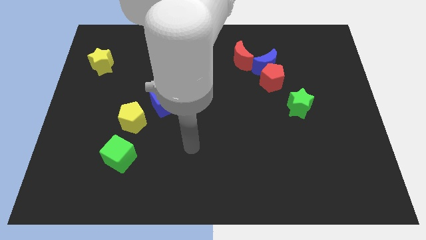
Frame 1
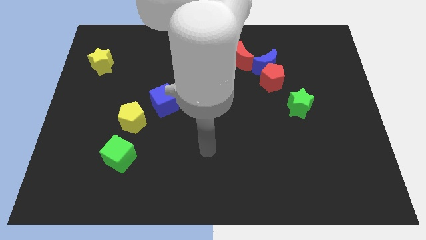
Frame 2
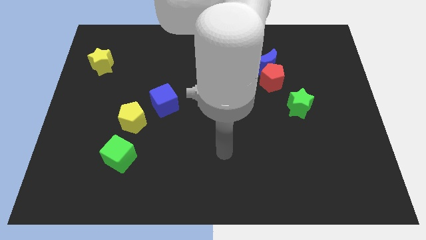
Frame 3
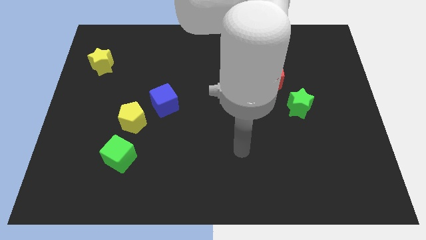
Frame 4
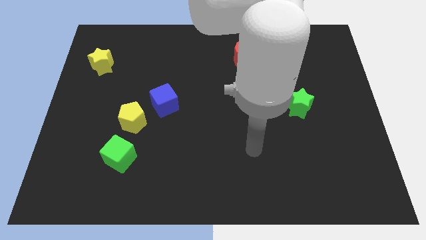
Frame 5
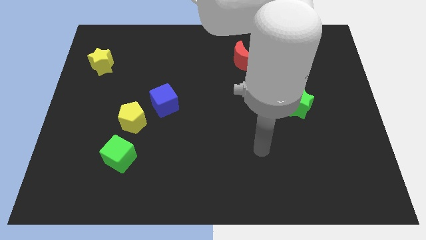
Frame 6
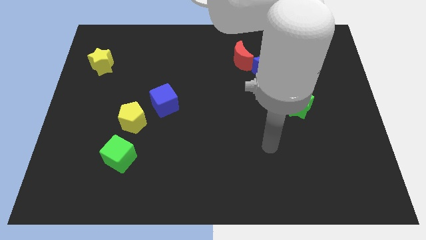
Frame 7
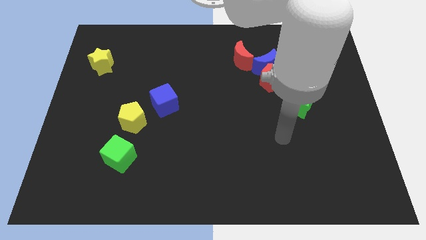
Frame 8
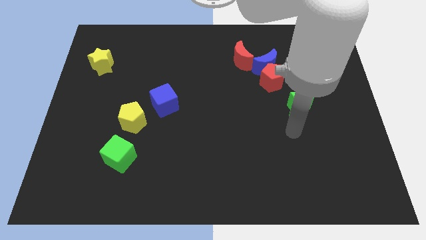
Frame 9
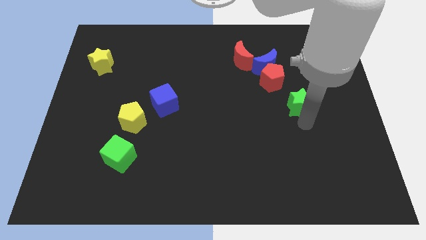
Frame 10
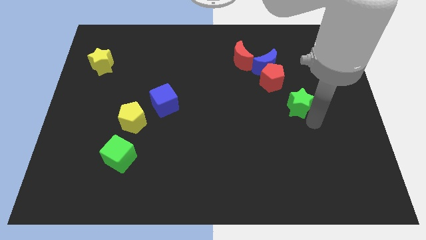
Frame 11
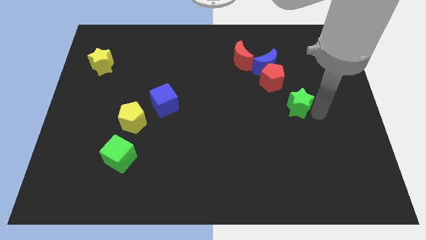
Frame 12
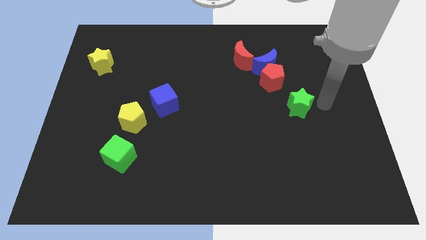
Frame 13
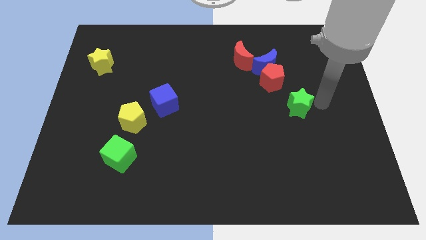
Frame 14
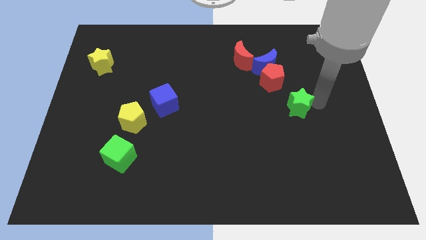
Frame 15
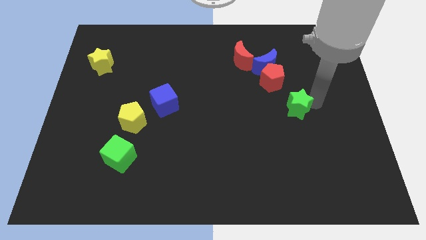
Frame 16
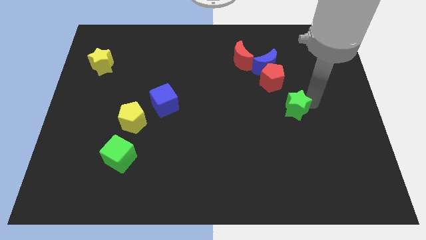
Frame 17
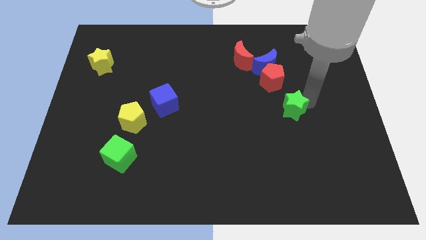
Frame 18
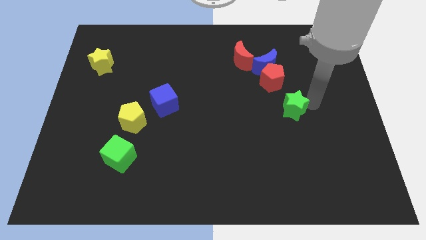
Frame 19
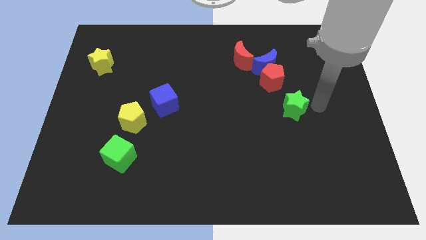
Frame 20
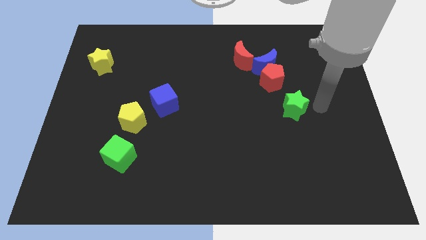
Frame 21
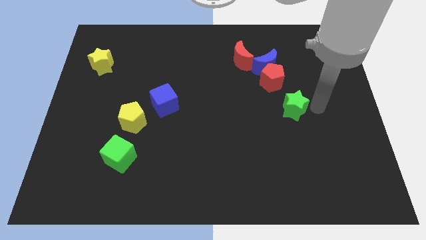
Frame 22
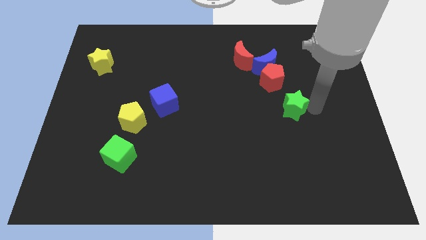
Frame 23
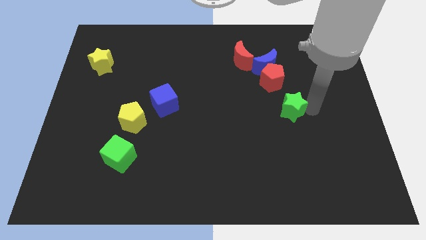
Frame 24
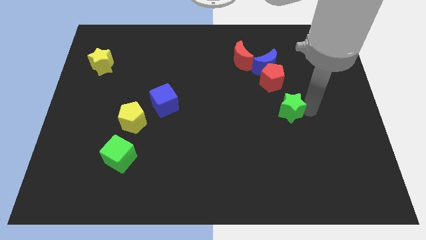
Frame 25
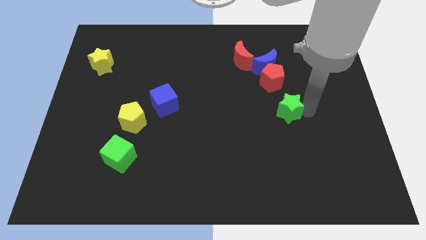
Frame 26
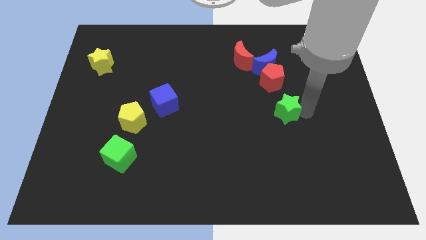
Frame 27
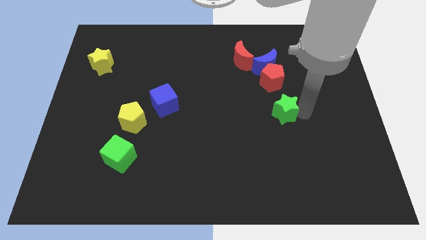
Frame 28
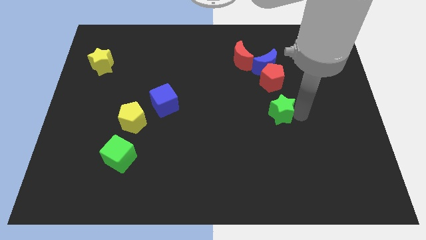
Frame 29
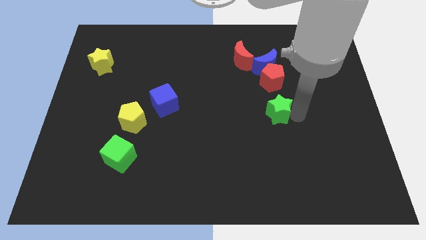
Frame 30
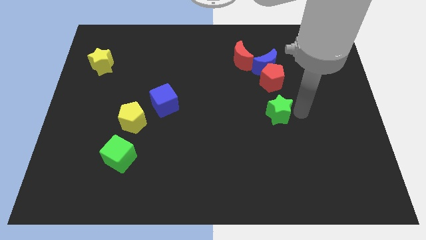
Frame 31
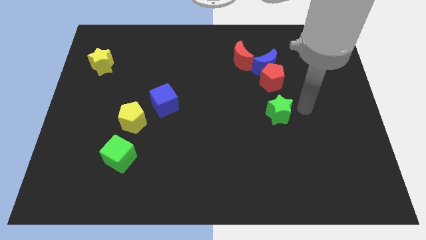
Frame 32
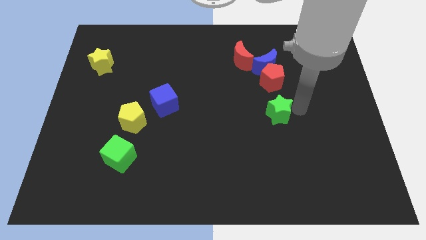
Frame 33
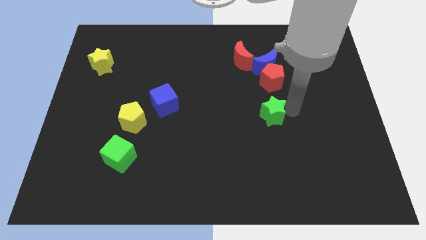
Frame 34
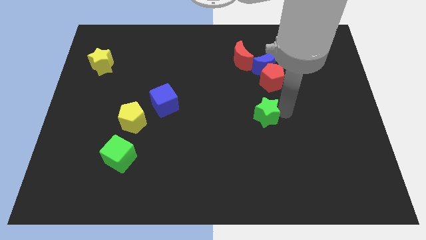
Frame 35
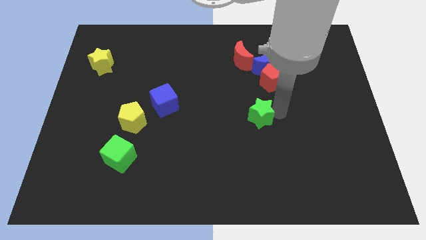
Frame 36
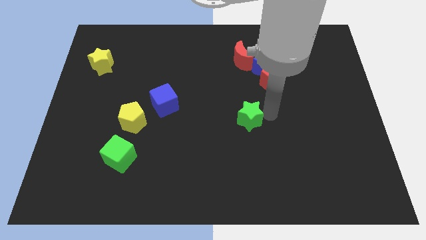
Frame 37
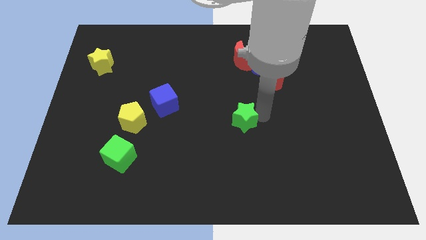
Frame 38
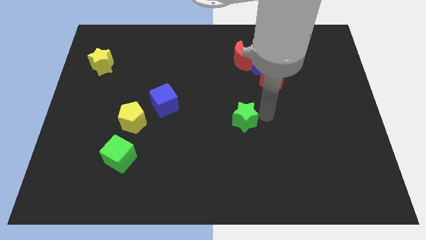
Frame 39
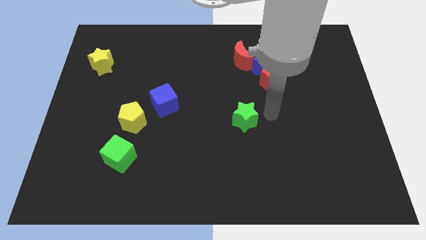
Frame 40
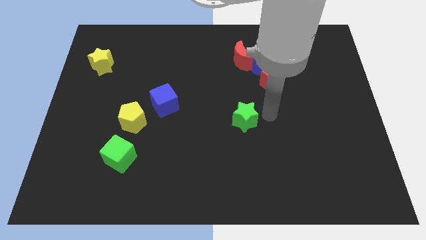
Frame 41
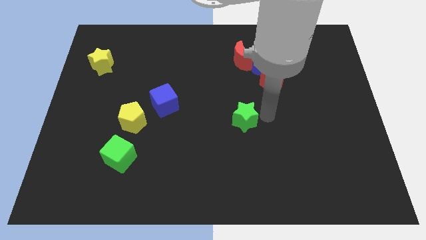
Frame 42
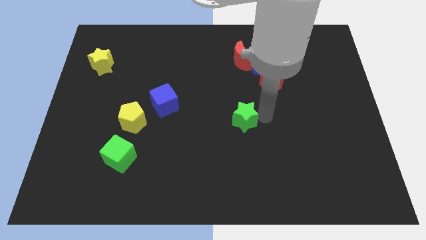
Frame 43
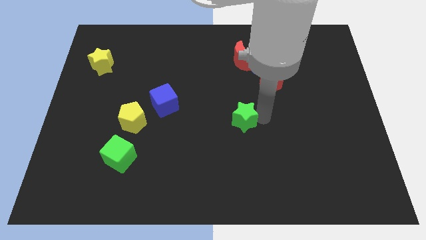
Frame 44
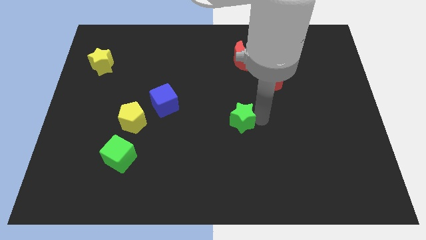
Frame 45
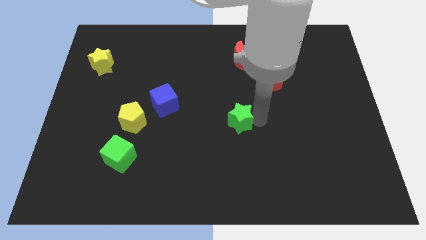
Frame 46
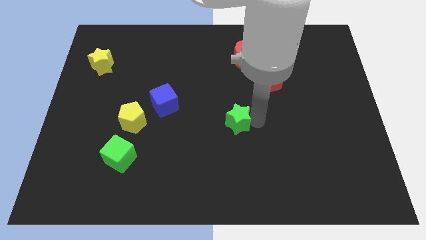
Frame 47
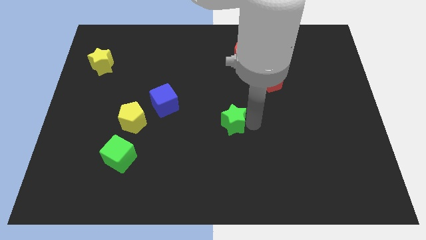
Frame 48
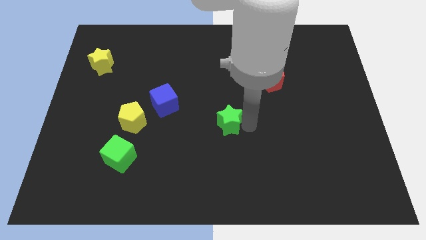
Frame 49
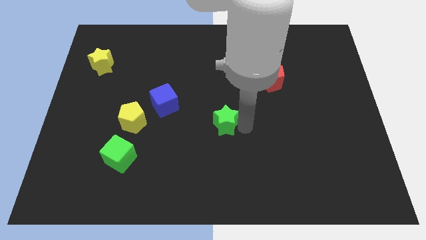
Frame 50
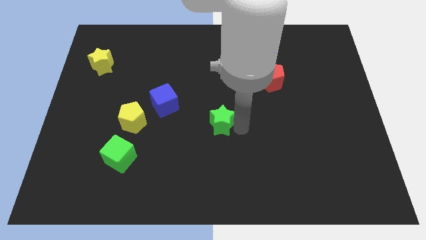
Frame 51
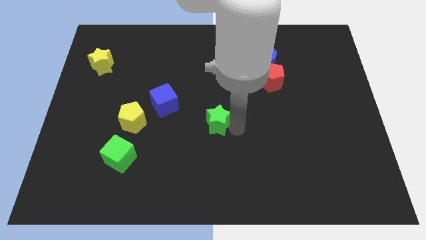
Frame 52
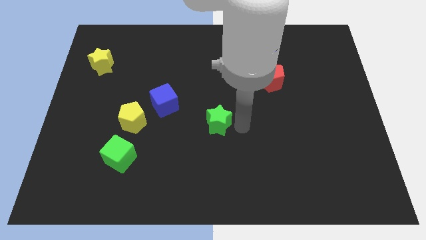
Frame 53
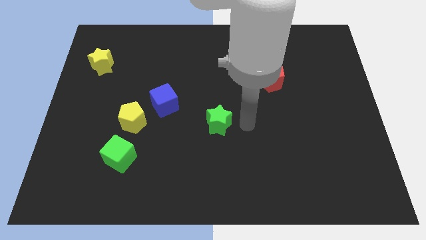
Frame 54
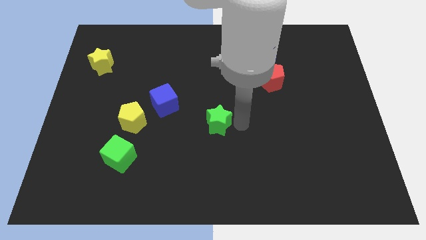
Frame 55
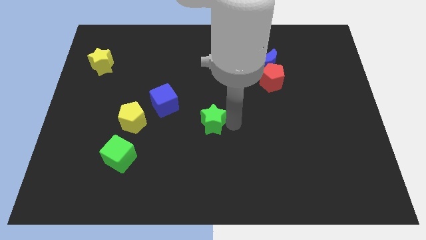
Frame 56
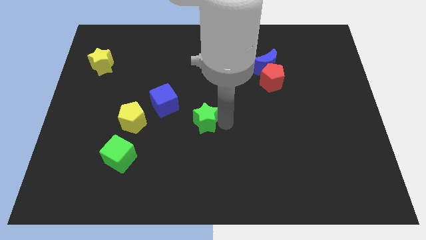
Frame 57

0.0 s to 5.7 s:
slide the green star diagonally down and to the right of the blue cube

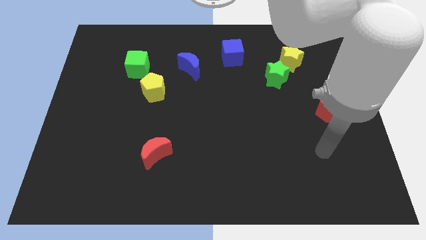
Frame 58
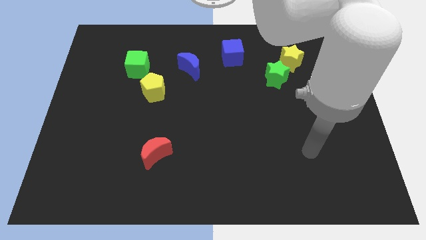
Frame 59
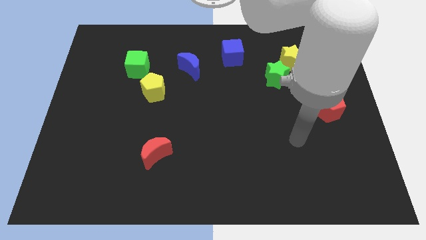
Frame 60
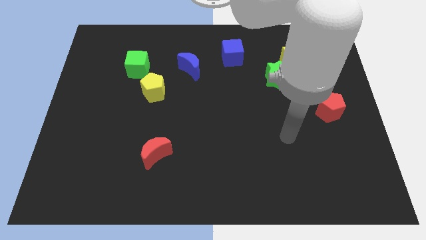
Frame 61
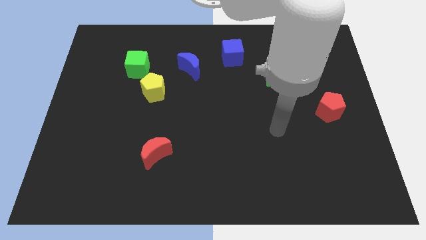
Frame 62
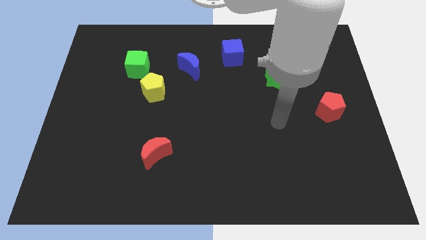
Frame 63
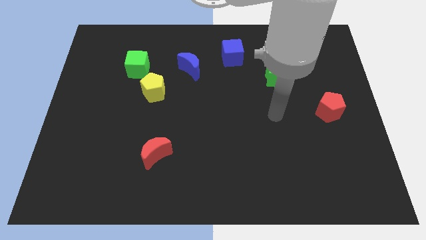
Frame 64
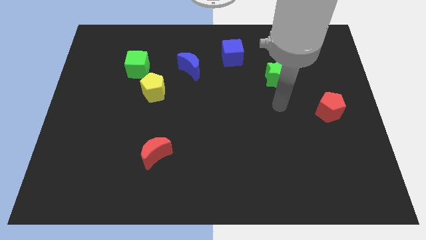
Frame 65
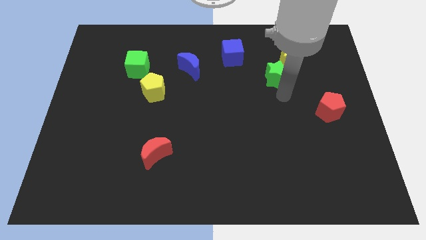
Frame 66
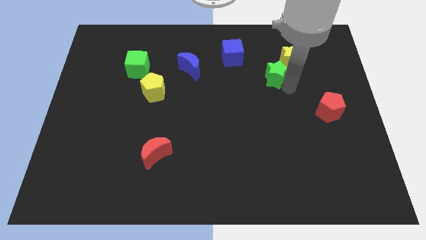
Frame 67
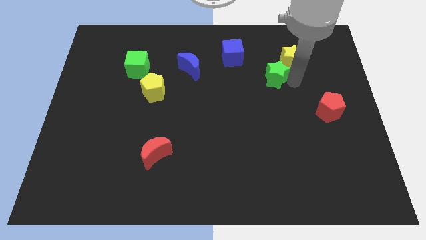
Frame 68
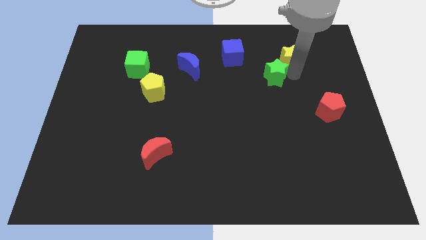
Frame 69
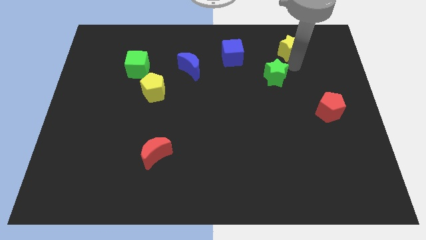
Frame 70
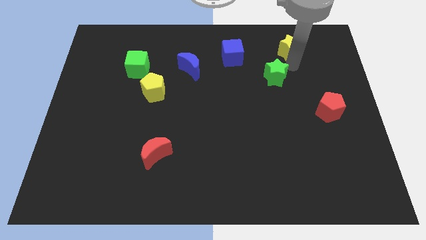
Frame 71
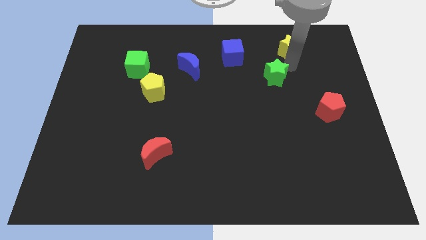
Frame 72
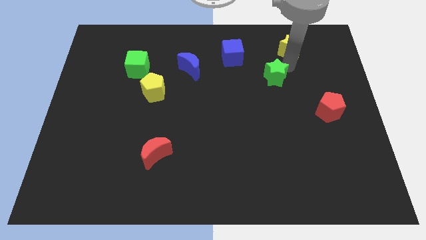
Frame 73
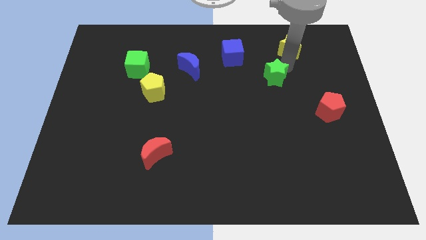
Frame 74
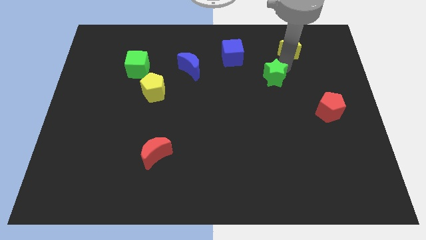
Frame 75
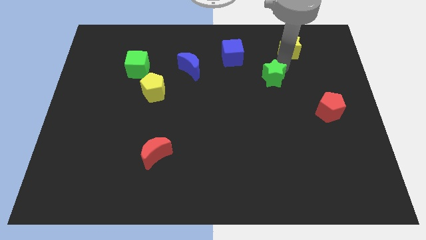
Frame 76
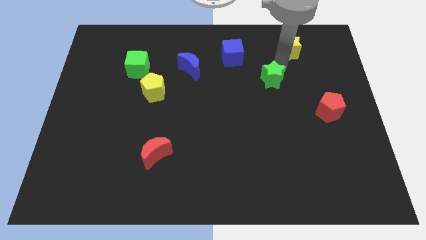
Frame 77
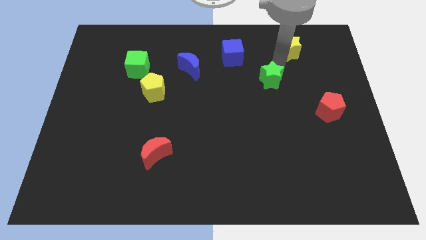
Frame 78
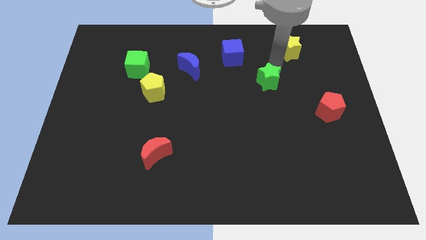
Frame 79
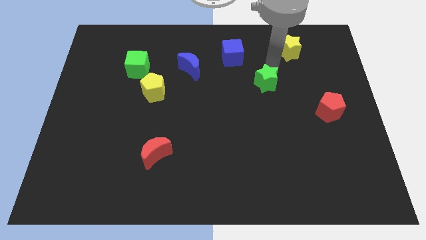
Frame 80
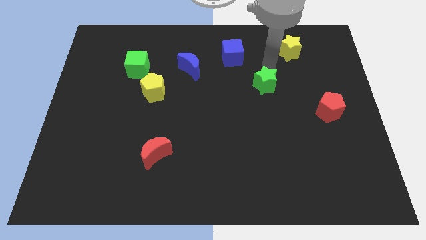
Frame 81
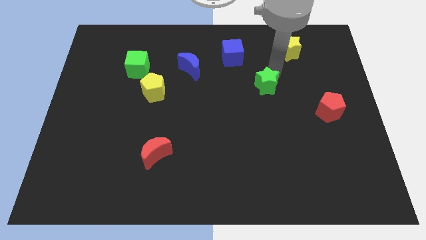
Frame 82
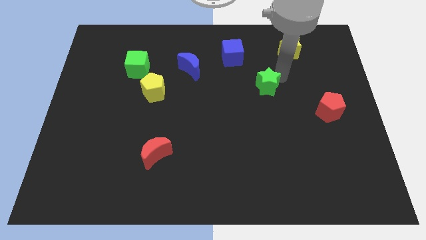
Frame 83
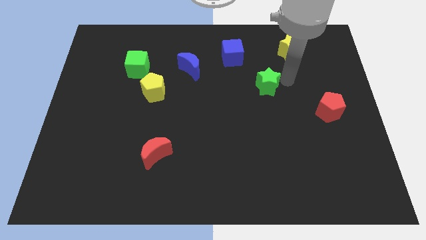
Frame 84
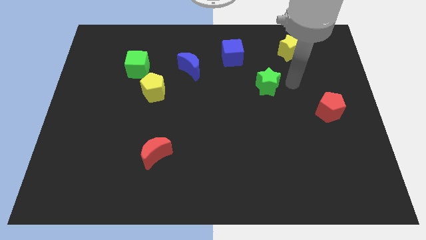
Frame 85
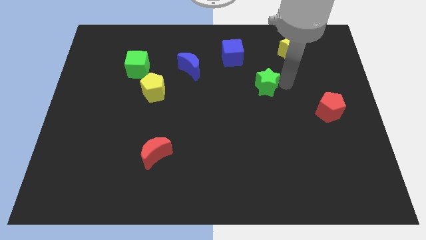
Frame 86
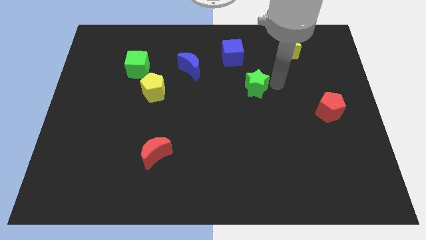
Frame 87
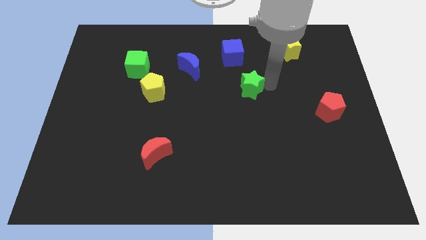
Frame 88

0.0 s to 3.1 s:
put the green star to the bottom of the blue cube
